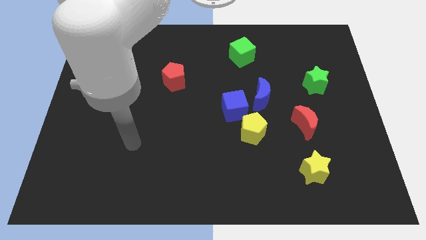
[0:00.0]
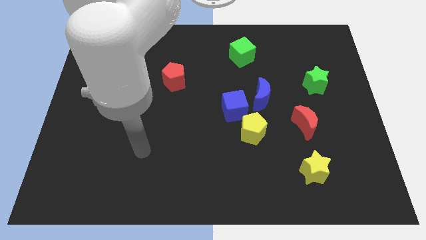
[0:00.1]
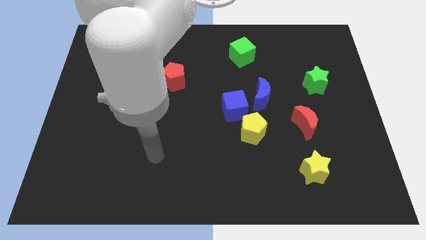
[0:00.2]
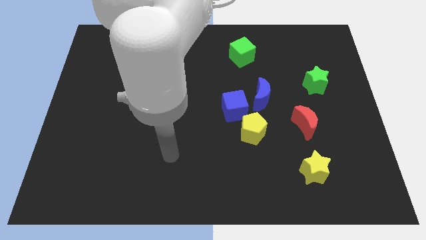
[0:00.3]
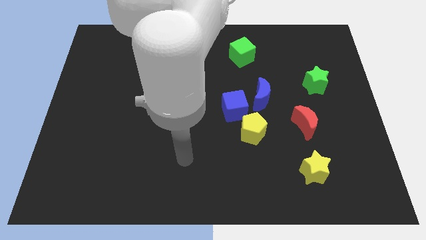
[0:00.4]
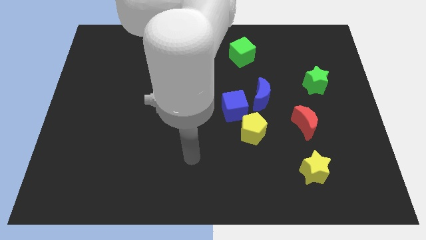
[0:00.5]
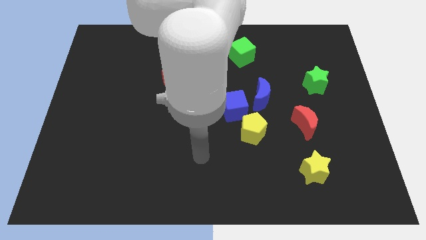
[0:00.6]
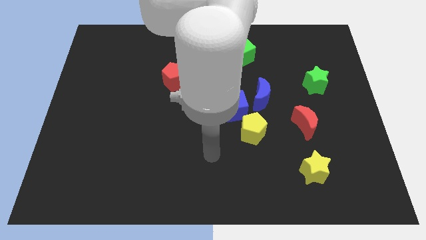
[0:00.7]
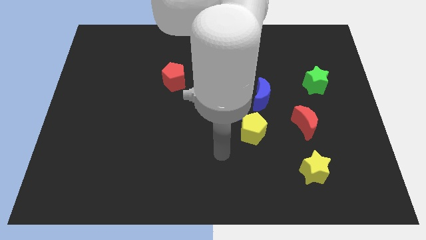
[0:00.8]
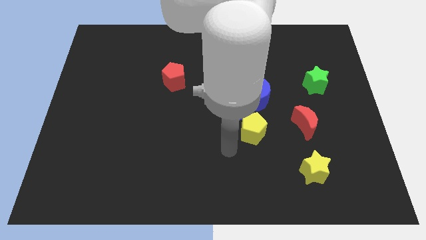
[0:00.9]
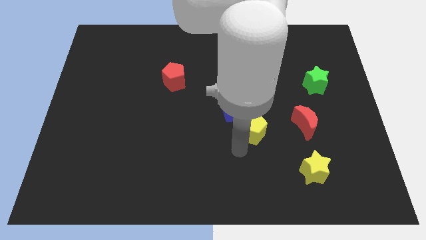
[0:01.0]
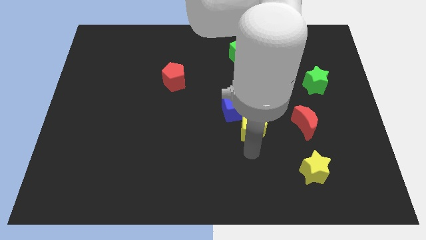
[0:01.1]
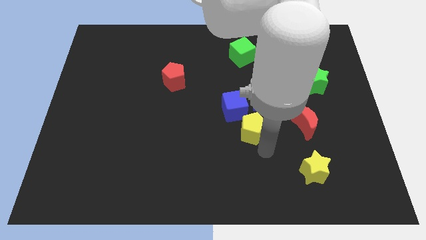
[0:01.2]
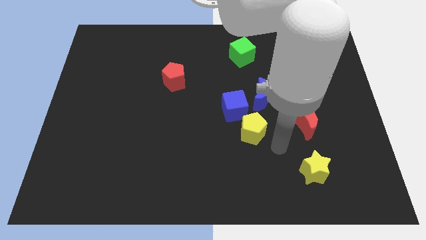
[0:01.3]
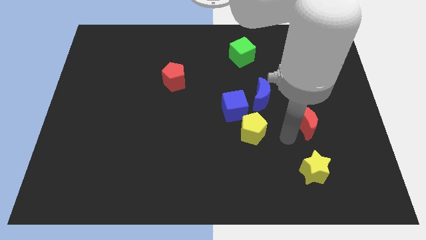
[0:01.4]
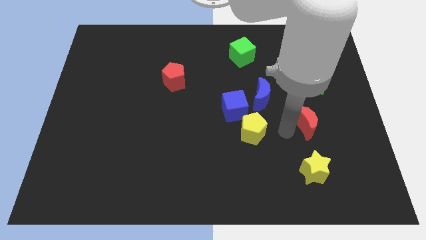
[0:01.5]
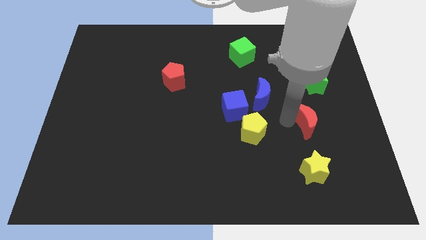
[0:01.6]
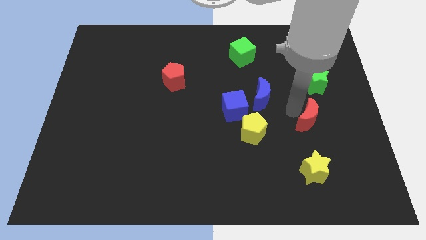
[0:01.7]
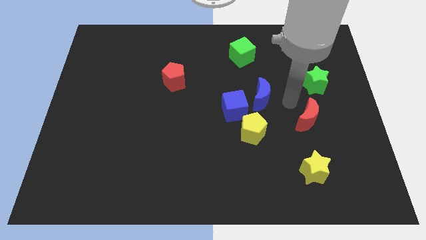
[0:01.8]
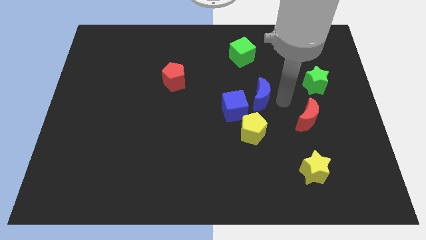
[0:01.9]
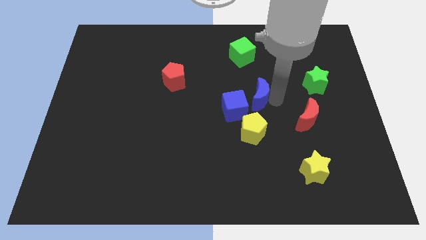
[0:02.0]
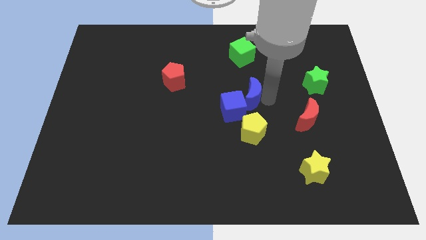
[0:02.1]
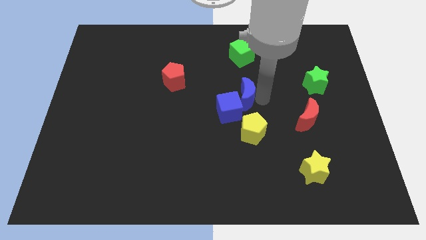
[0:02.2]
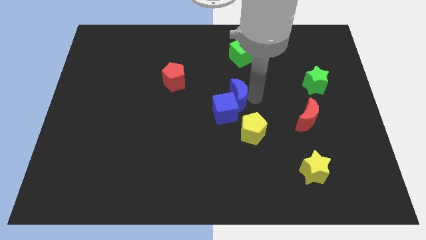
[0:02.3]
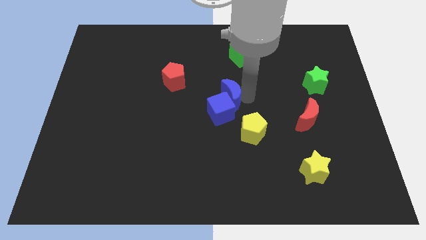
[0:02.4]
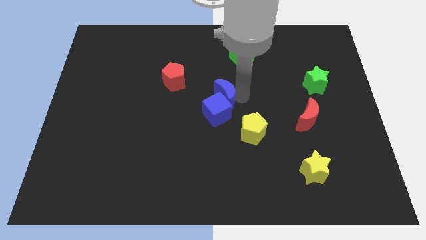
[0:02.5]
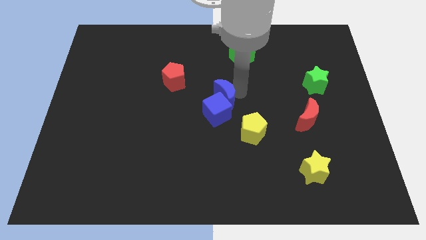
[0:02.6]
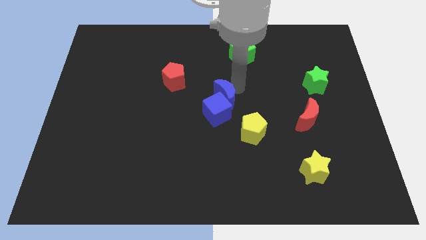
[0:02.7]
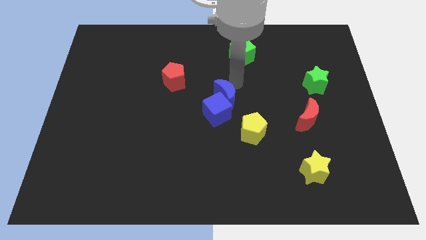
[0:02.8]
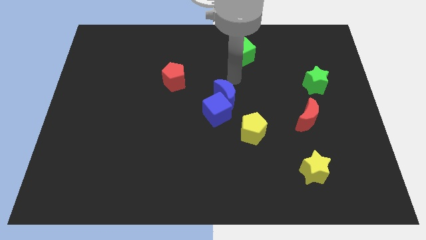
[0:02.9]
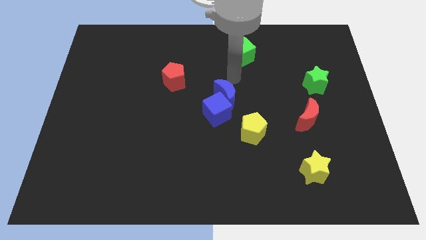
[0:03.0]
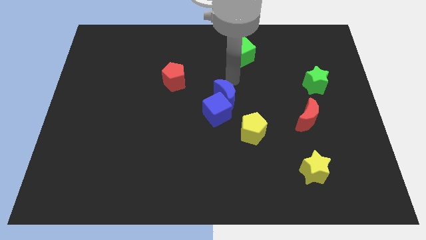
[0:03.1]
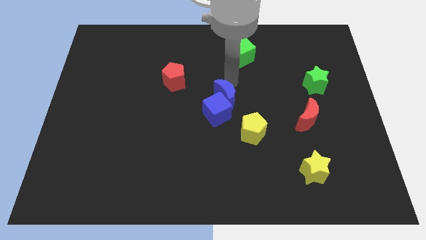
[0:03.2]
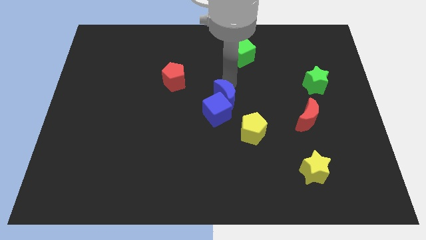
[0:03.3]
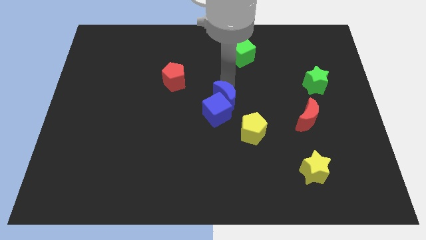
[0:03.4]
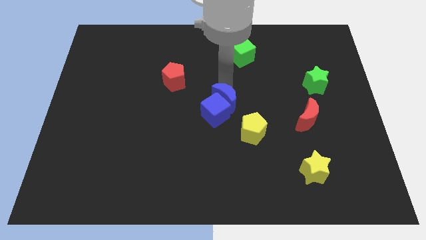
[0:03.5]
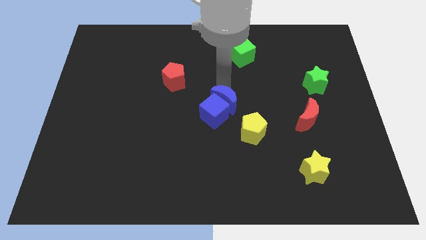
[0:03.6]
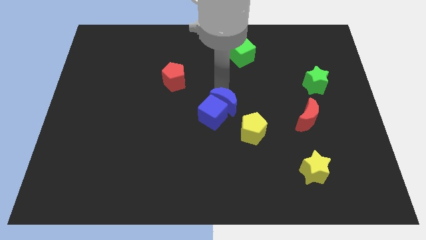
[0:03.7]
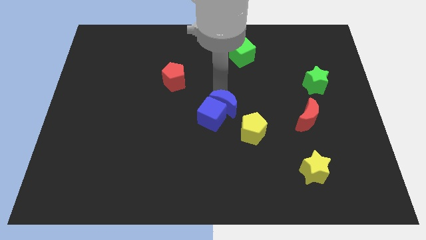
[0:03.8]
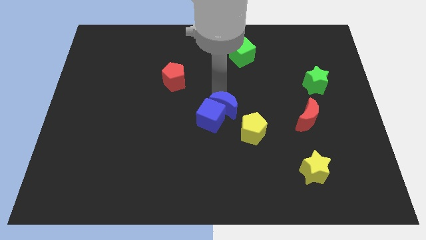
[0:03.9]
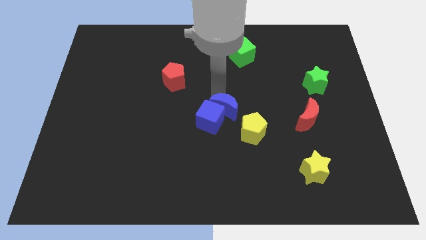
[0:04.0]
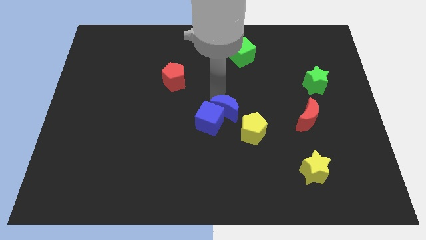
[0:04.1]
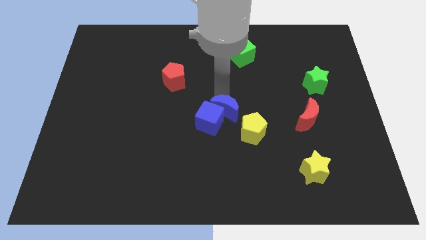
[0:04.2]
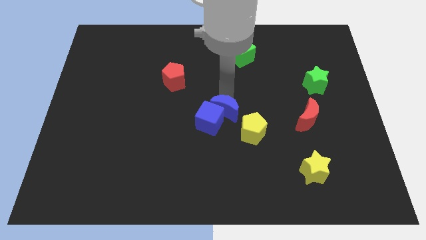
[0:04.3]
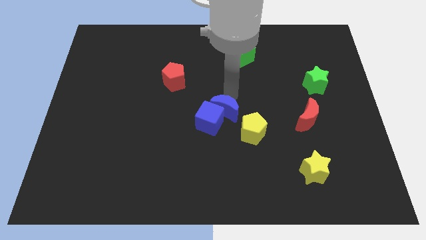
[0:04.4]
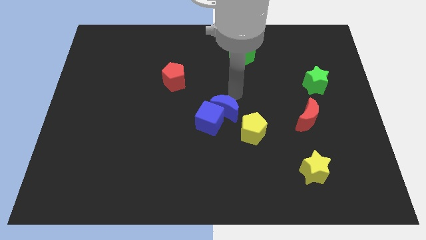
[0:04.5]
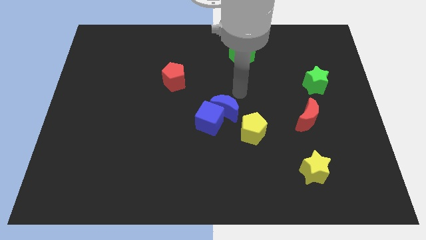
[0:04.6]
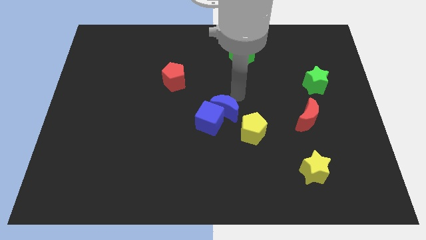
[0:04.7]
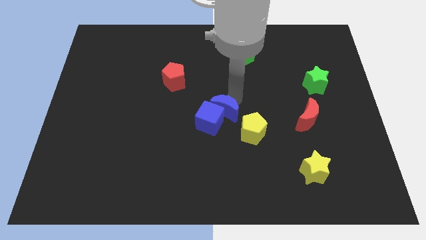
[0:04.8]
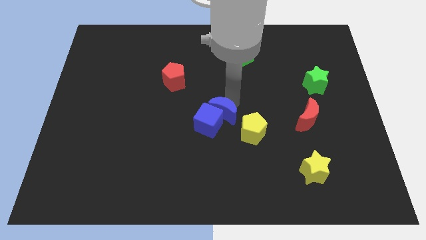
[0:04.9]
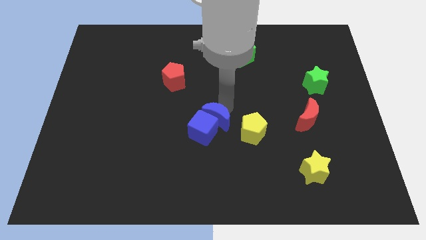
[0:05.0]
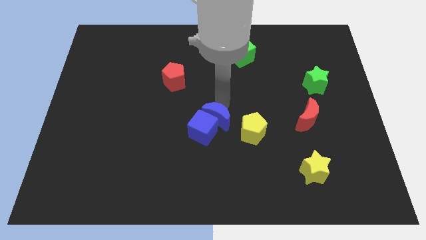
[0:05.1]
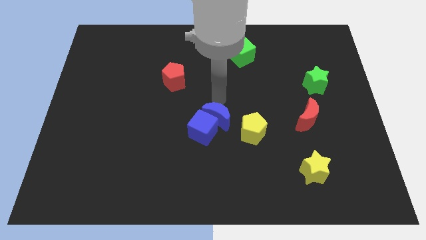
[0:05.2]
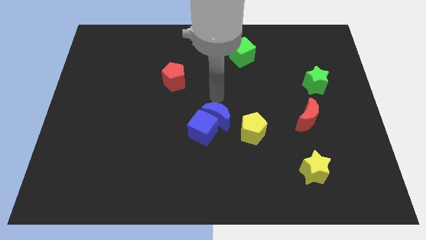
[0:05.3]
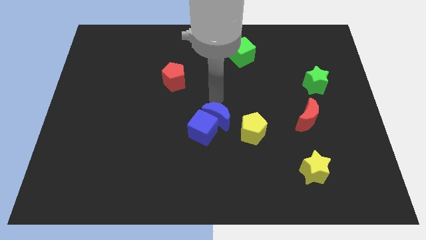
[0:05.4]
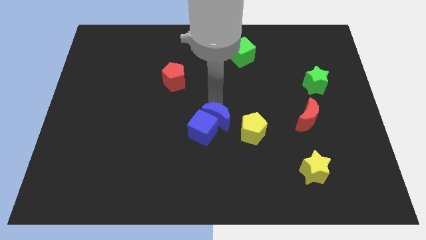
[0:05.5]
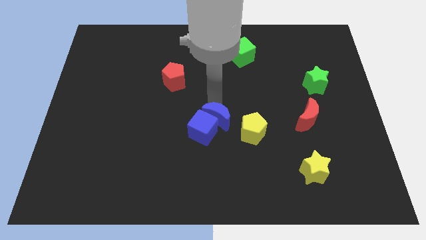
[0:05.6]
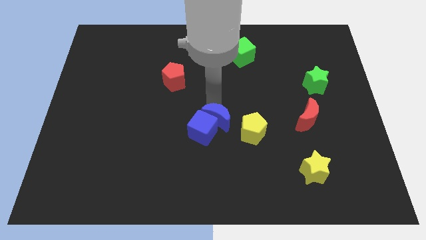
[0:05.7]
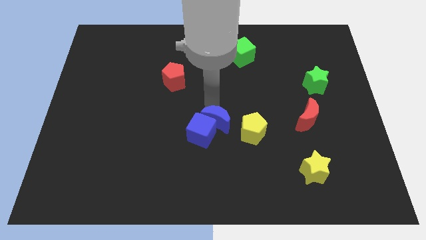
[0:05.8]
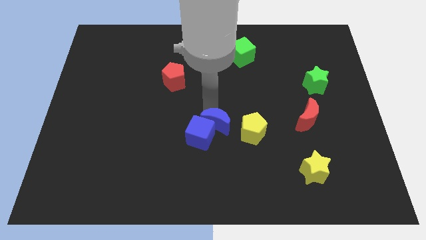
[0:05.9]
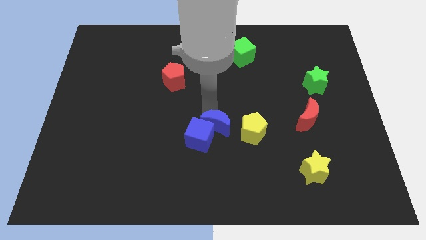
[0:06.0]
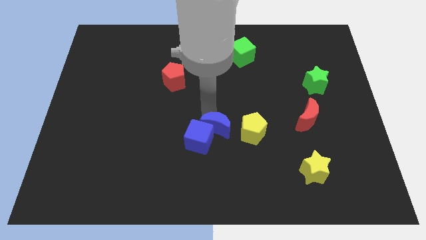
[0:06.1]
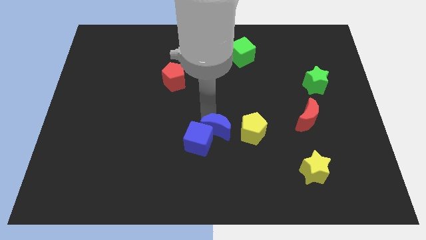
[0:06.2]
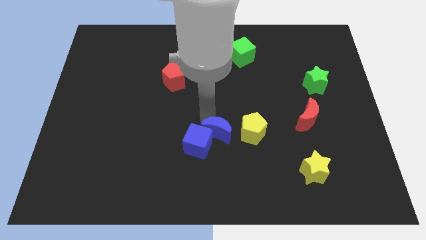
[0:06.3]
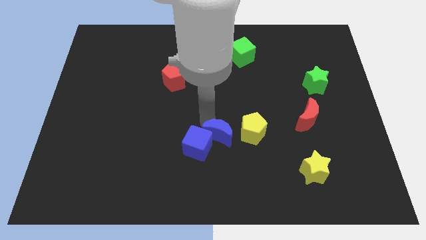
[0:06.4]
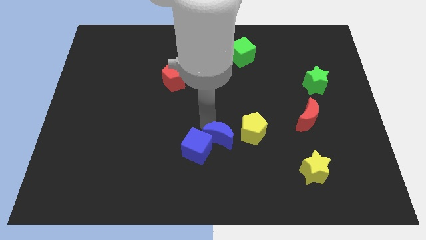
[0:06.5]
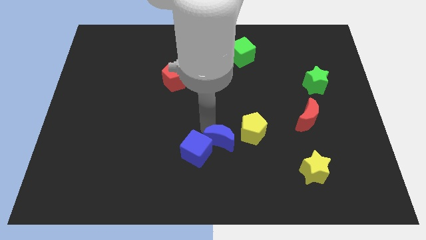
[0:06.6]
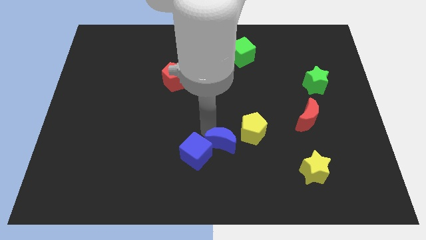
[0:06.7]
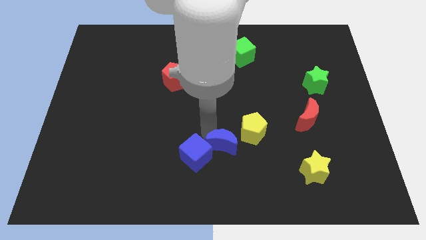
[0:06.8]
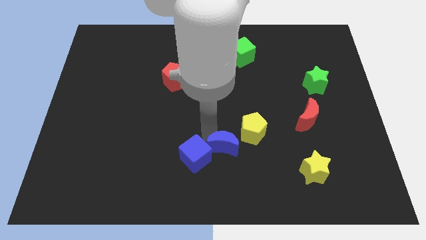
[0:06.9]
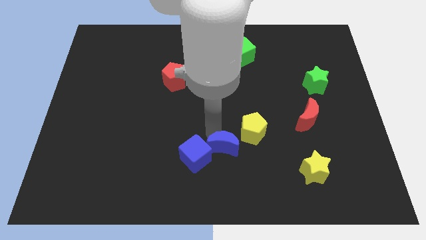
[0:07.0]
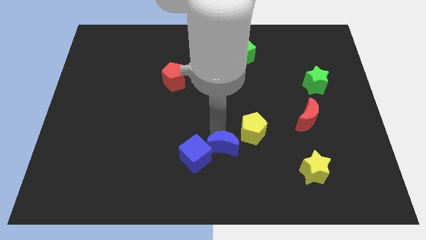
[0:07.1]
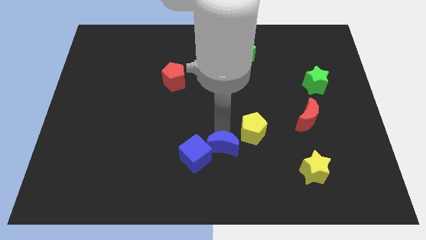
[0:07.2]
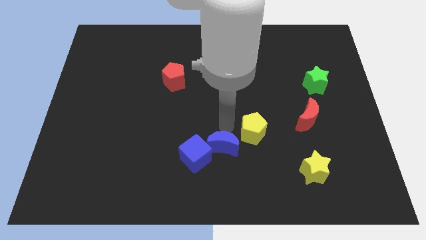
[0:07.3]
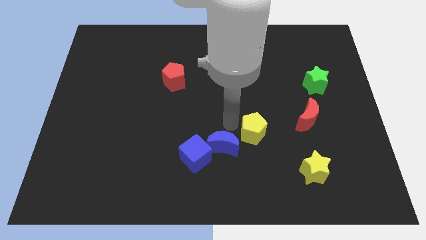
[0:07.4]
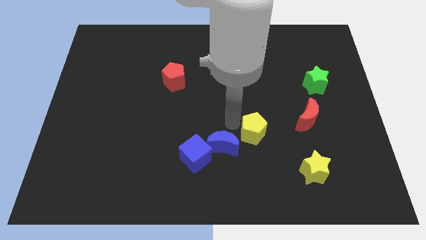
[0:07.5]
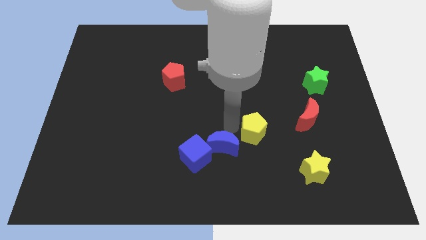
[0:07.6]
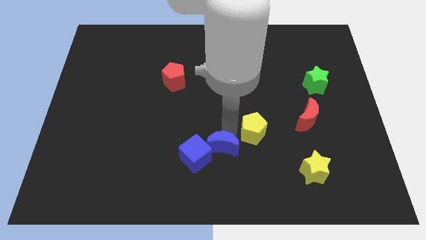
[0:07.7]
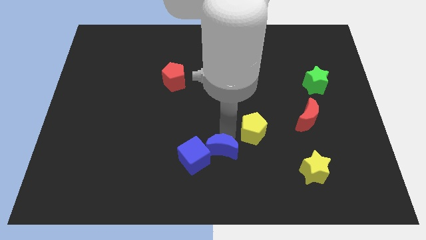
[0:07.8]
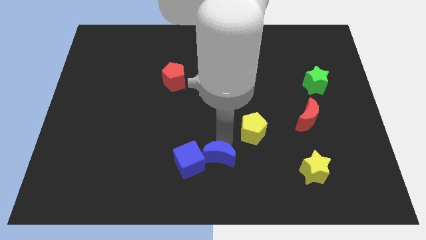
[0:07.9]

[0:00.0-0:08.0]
move the blue moon to the bottom
